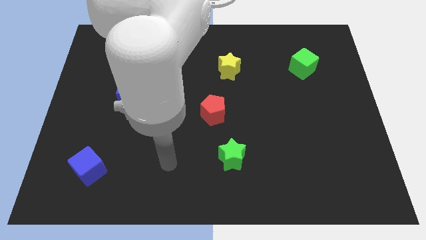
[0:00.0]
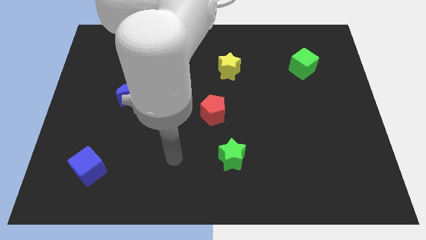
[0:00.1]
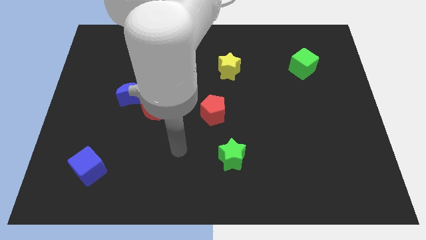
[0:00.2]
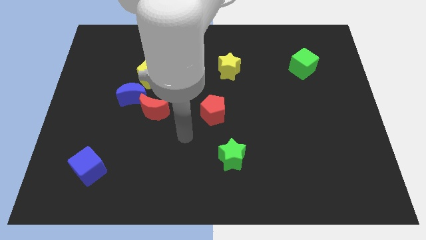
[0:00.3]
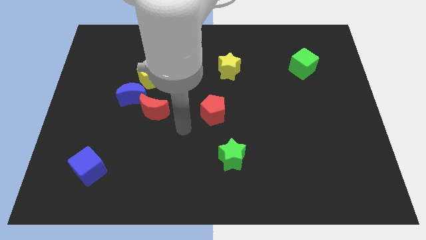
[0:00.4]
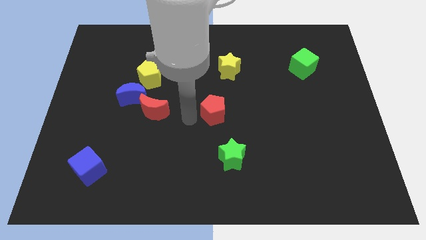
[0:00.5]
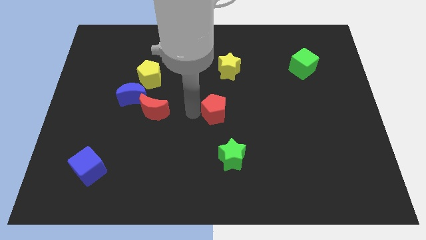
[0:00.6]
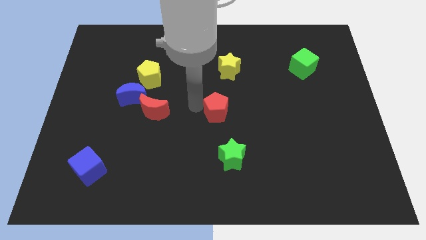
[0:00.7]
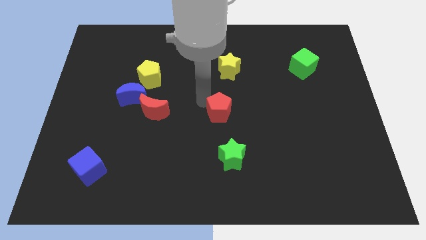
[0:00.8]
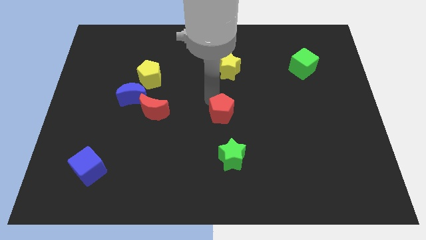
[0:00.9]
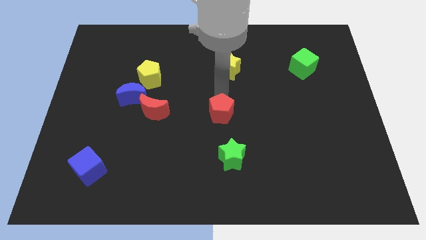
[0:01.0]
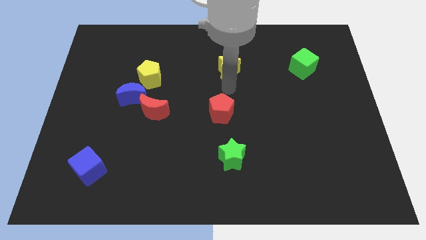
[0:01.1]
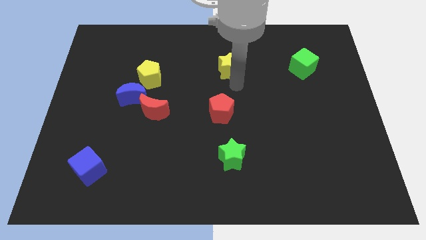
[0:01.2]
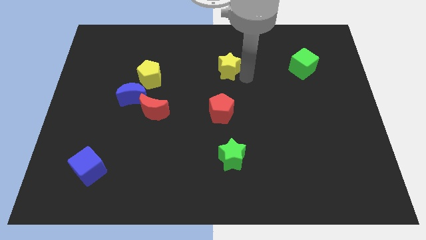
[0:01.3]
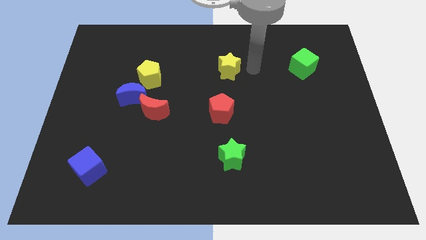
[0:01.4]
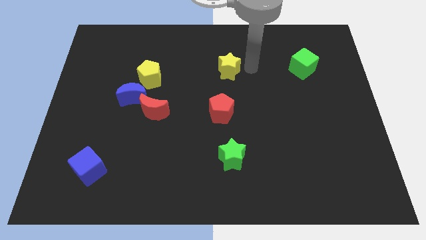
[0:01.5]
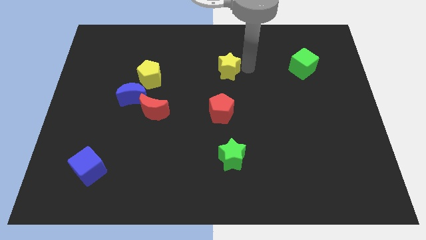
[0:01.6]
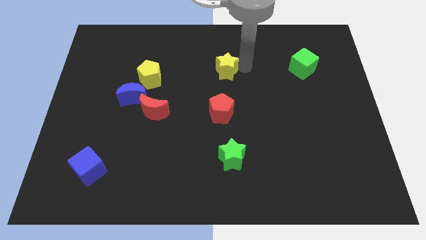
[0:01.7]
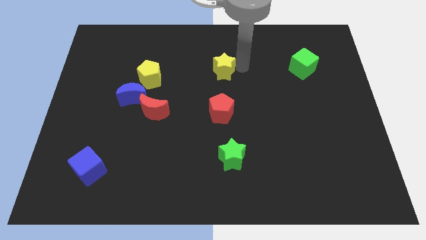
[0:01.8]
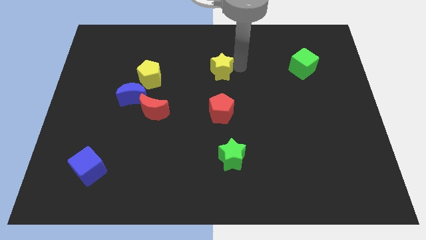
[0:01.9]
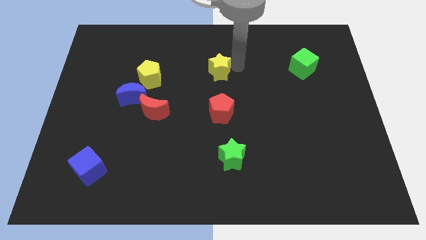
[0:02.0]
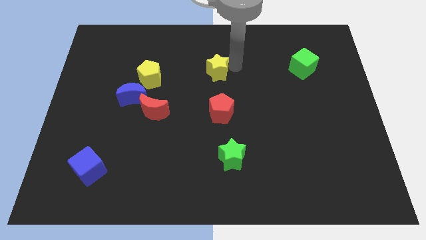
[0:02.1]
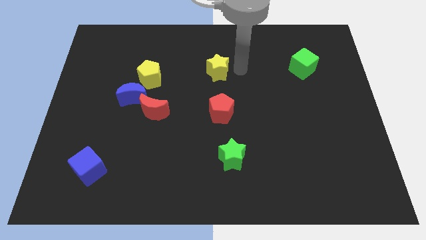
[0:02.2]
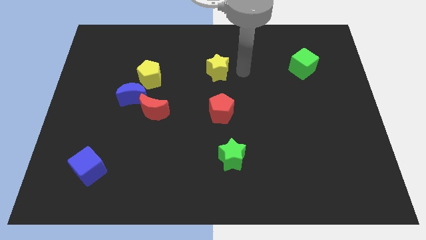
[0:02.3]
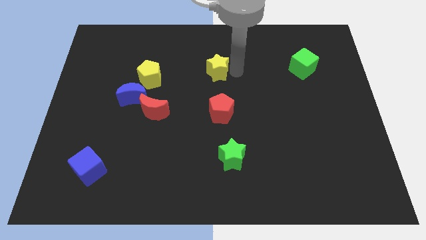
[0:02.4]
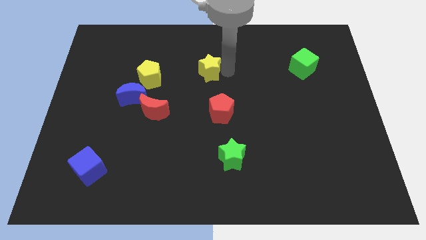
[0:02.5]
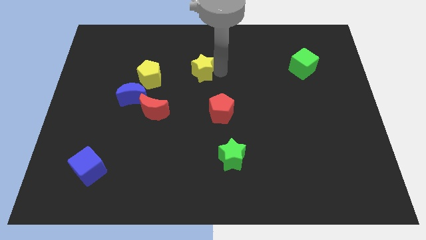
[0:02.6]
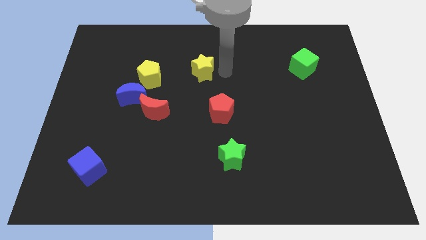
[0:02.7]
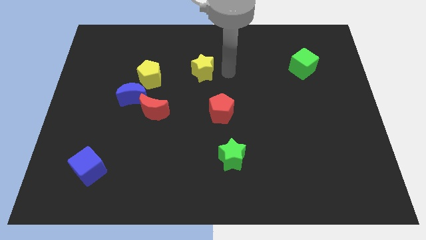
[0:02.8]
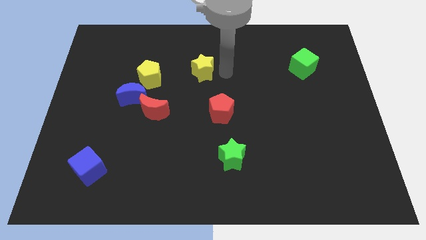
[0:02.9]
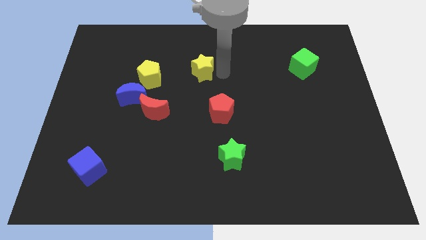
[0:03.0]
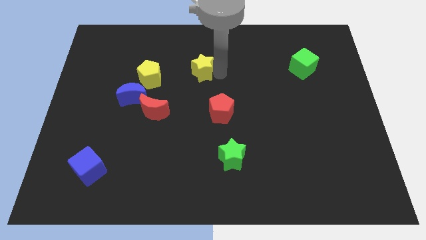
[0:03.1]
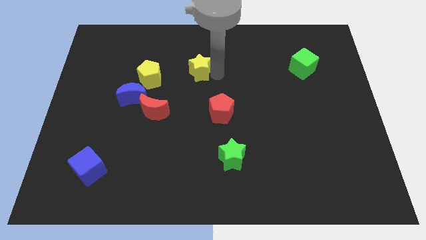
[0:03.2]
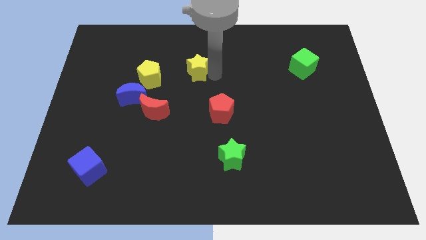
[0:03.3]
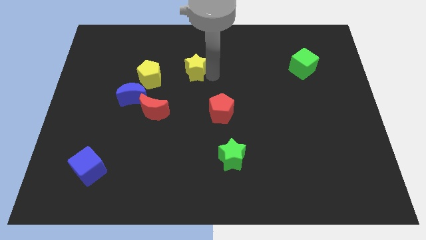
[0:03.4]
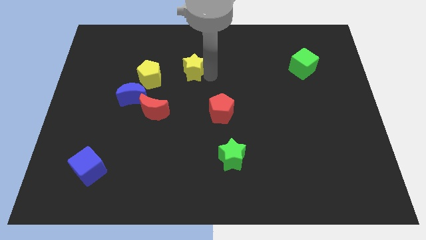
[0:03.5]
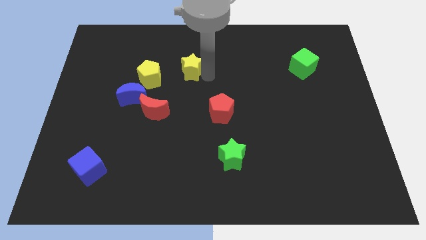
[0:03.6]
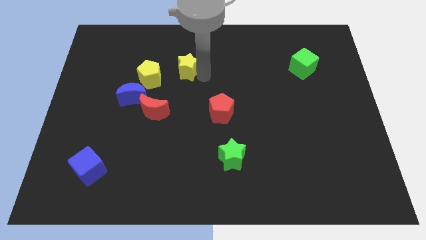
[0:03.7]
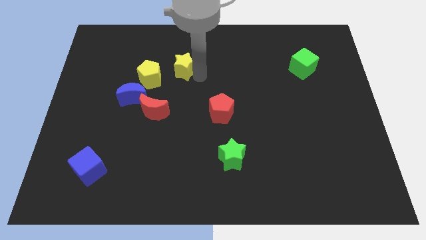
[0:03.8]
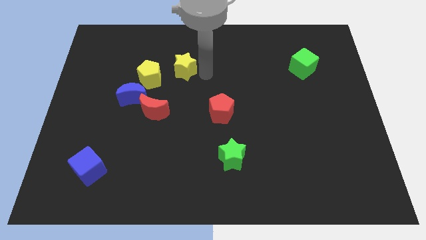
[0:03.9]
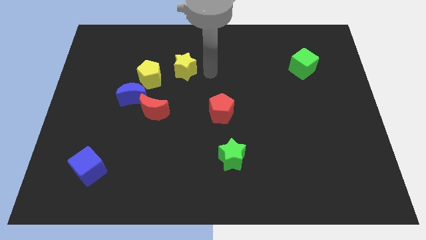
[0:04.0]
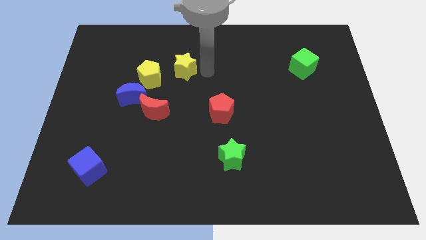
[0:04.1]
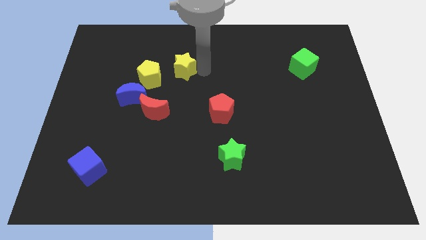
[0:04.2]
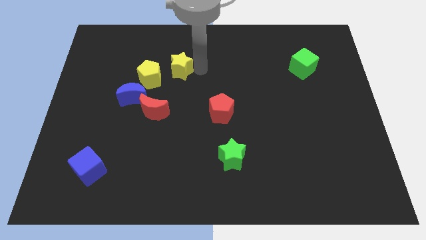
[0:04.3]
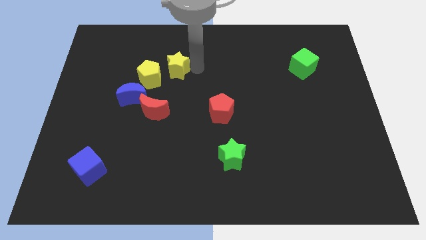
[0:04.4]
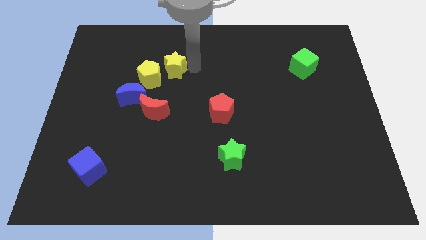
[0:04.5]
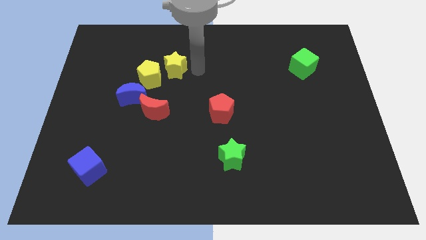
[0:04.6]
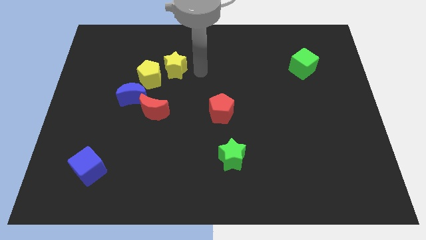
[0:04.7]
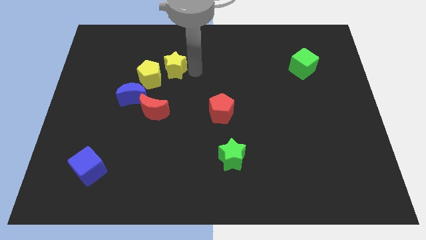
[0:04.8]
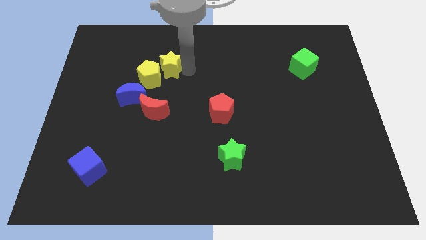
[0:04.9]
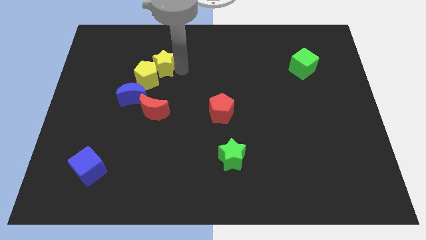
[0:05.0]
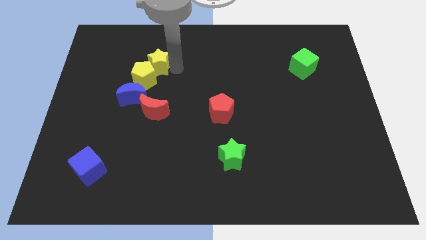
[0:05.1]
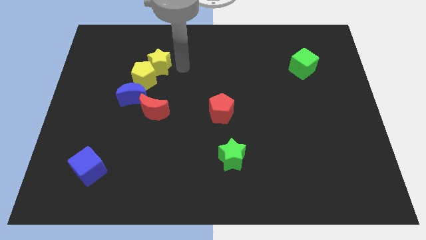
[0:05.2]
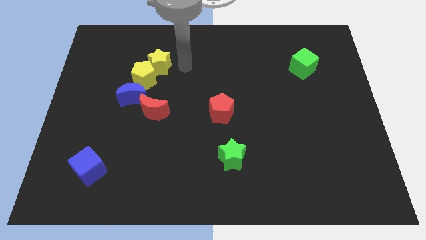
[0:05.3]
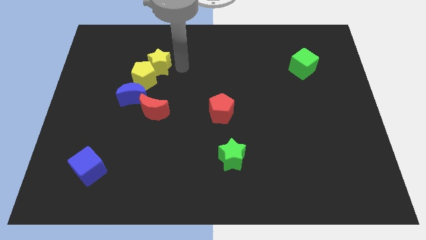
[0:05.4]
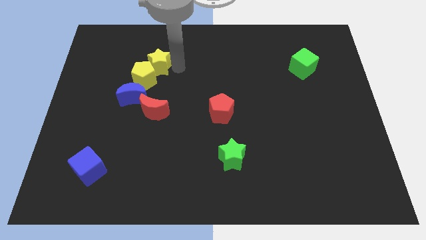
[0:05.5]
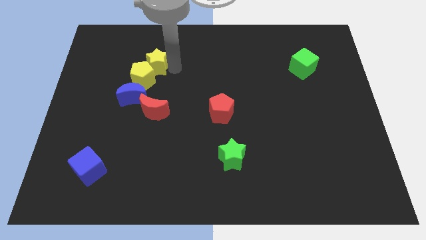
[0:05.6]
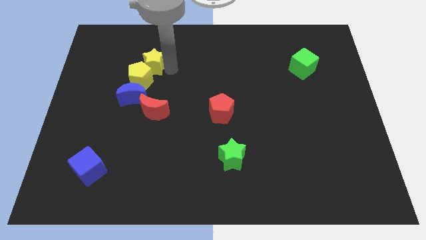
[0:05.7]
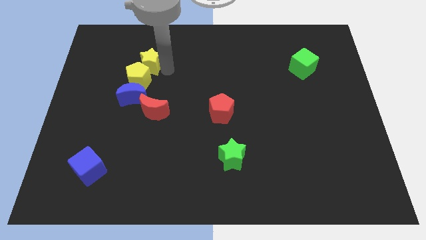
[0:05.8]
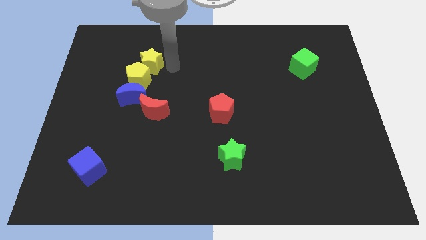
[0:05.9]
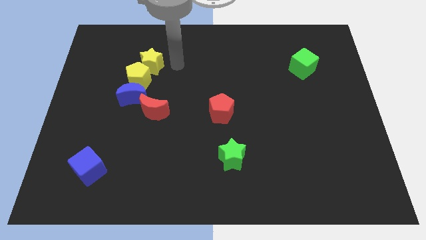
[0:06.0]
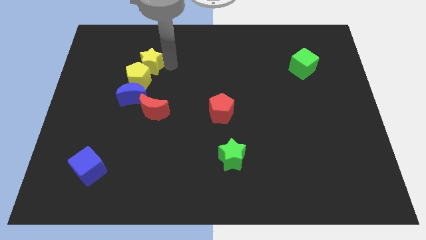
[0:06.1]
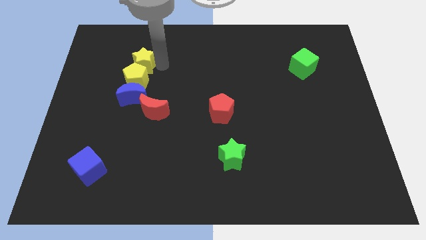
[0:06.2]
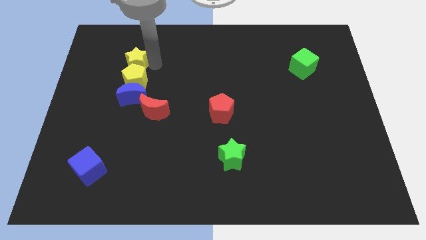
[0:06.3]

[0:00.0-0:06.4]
move the yellow star to the top left of the yellow pentagon

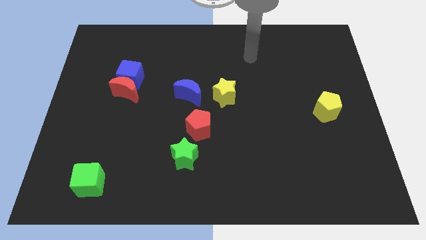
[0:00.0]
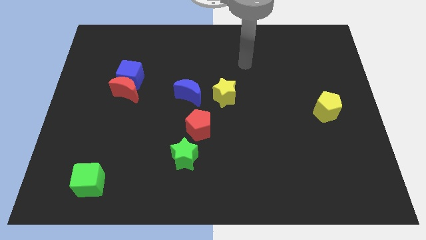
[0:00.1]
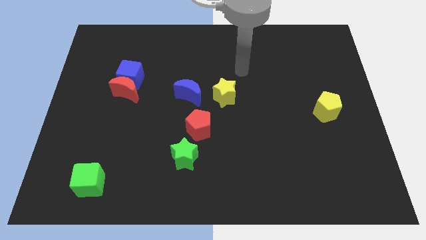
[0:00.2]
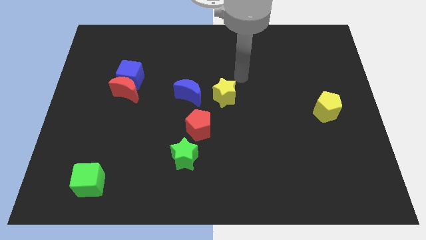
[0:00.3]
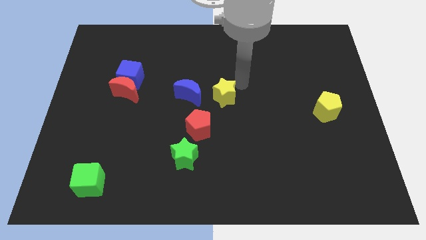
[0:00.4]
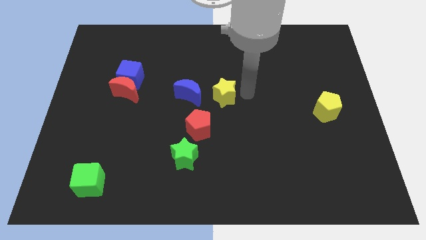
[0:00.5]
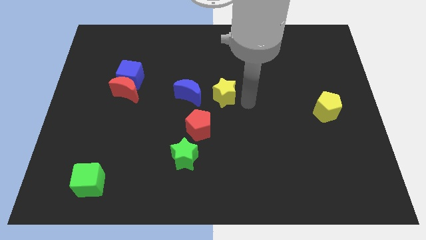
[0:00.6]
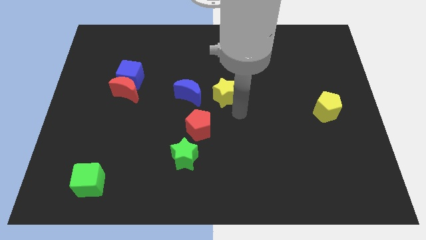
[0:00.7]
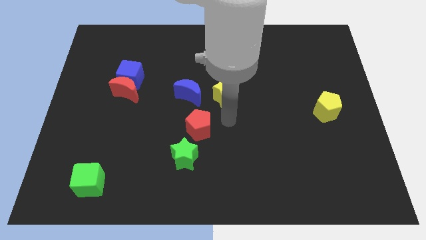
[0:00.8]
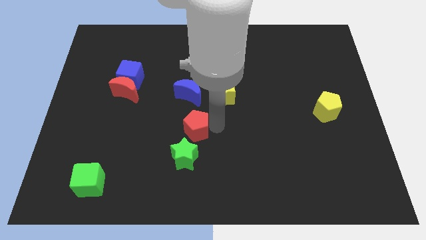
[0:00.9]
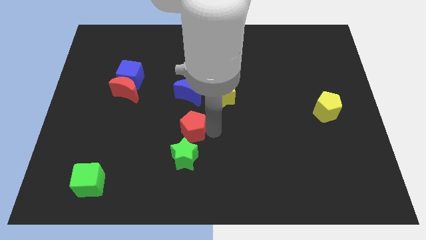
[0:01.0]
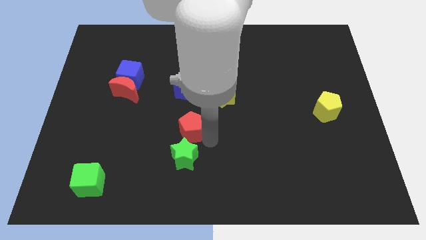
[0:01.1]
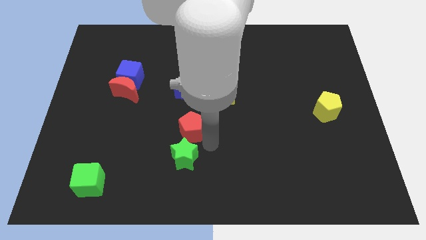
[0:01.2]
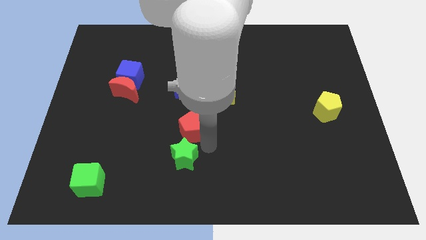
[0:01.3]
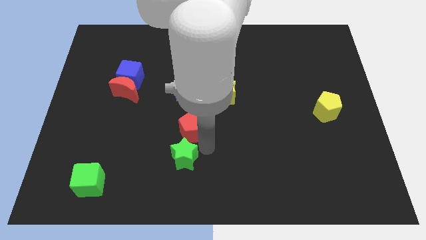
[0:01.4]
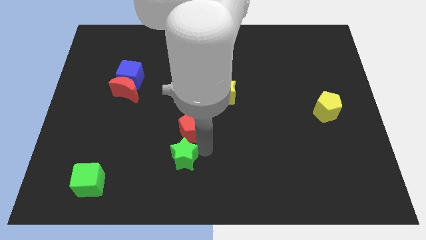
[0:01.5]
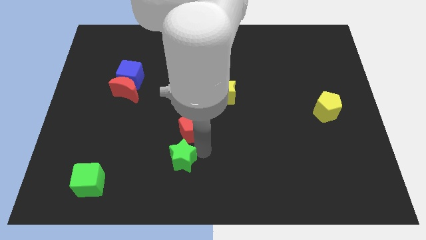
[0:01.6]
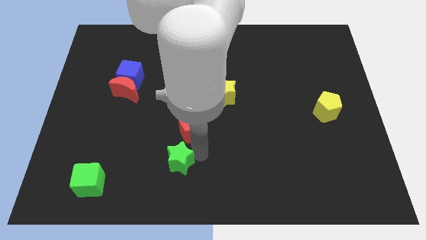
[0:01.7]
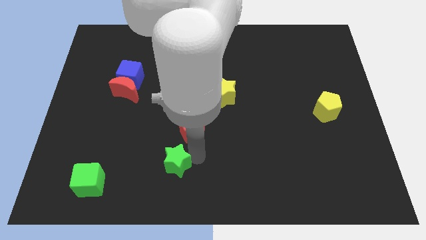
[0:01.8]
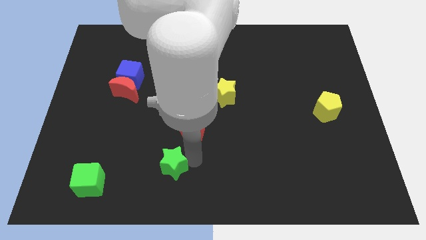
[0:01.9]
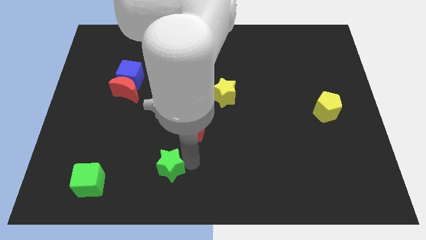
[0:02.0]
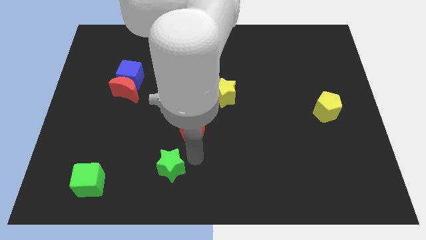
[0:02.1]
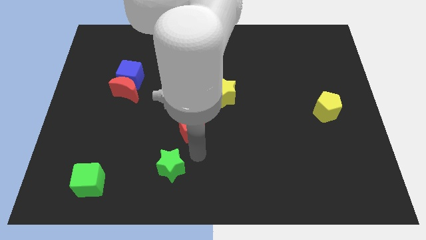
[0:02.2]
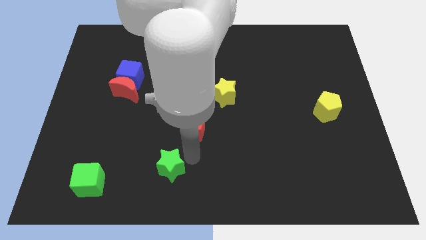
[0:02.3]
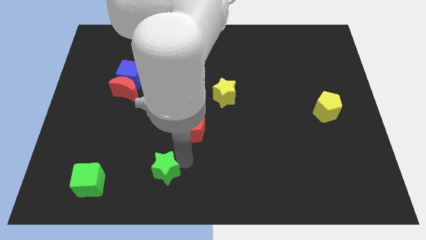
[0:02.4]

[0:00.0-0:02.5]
put the green star to the right of the green cube
